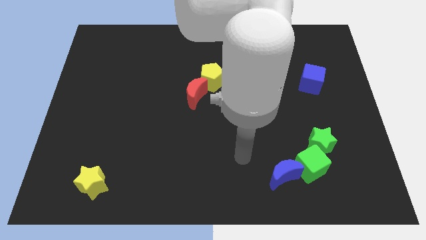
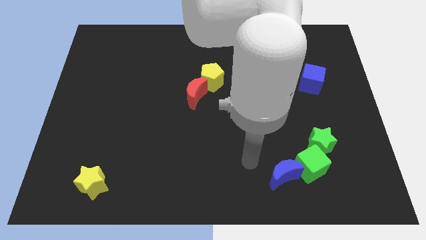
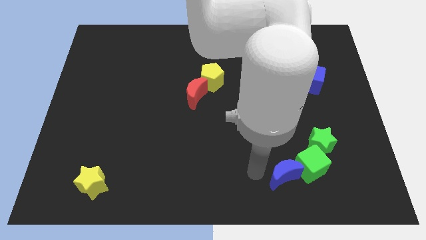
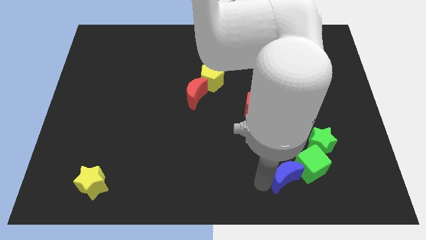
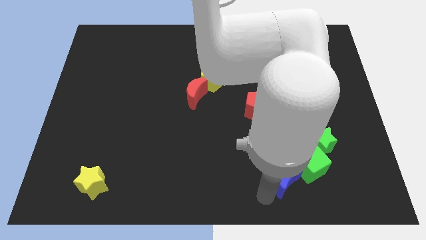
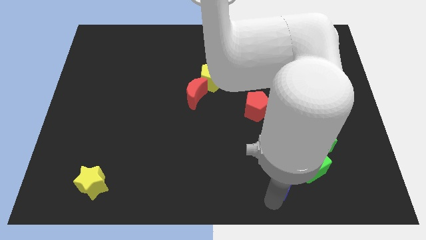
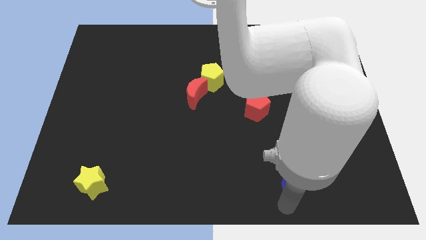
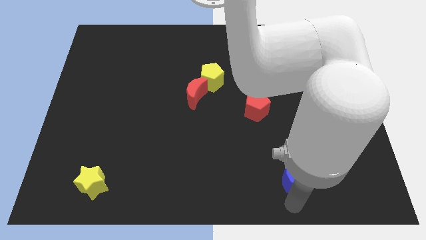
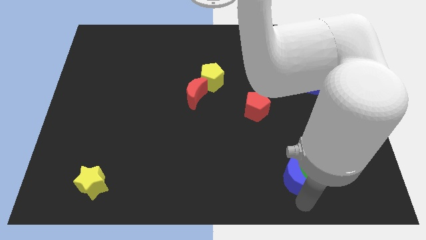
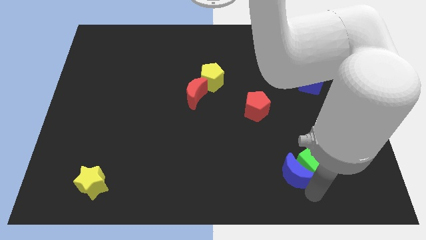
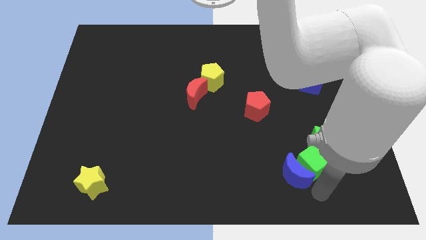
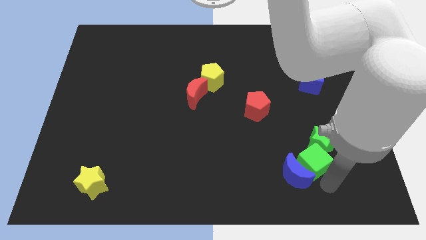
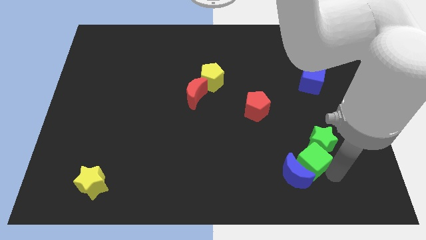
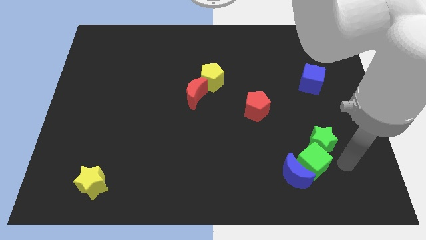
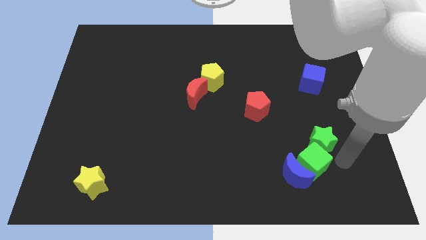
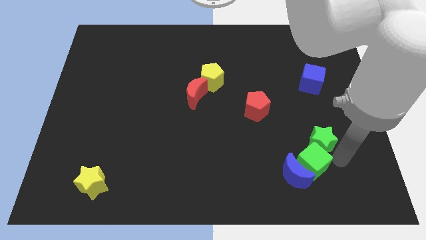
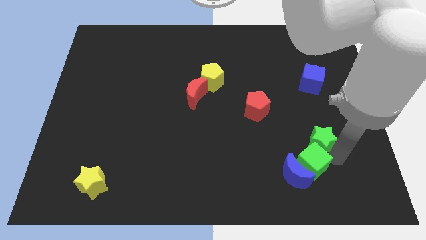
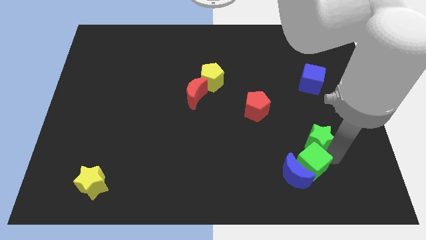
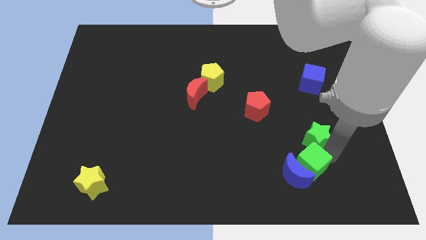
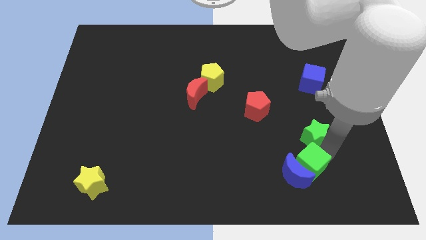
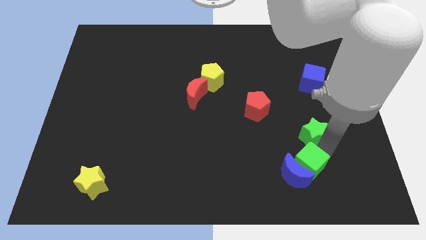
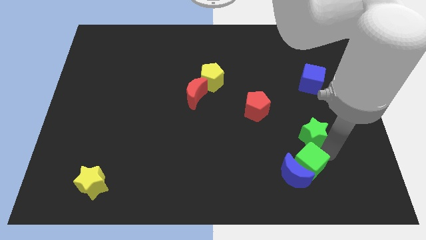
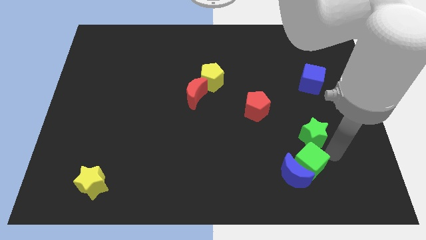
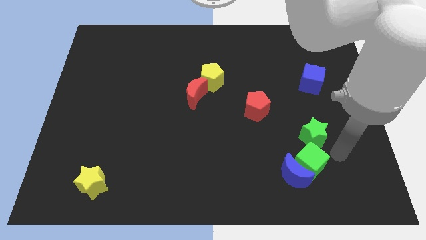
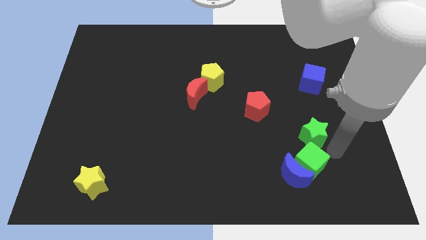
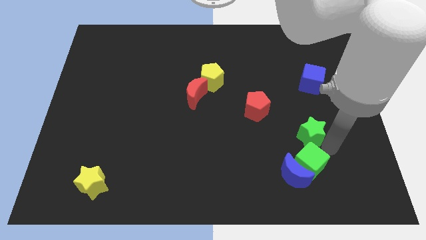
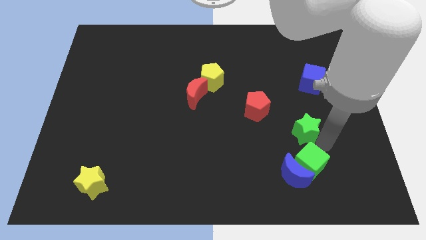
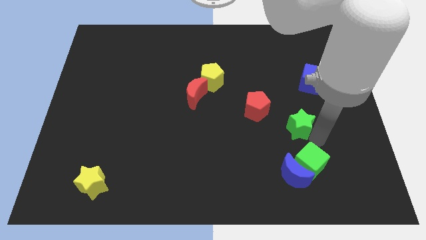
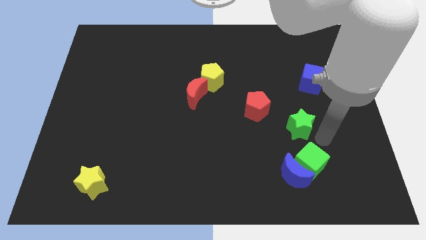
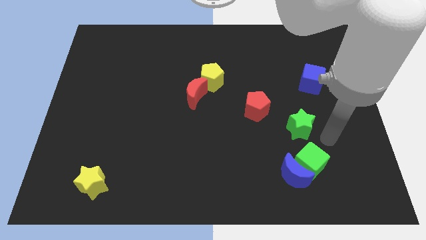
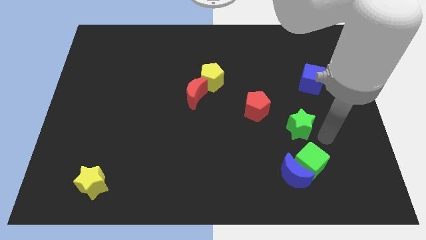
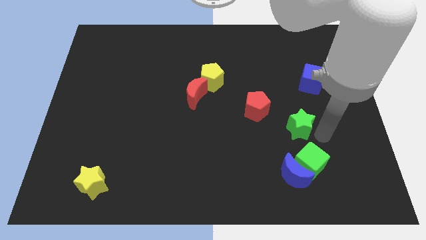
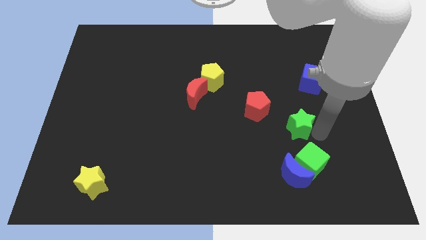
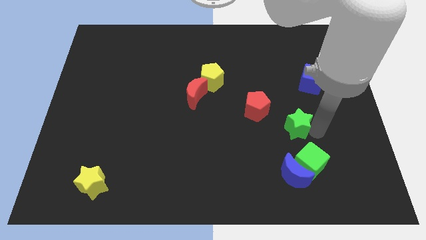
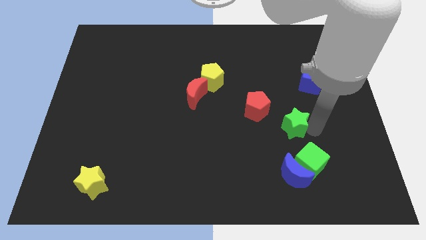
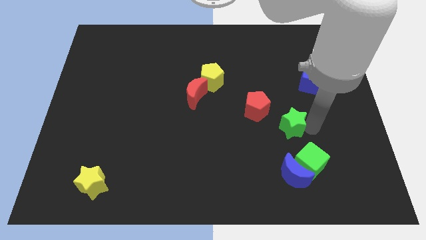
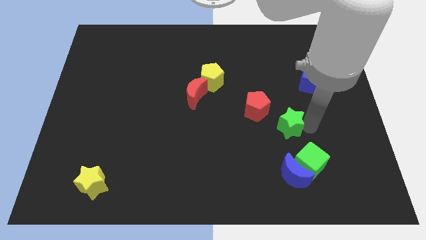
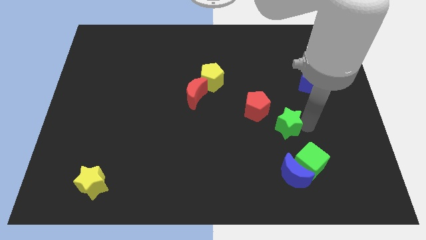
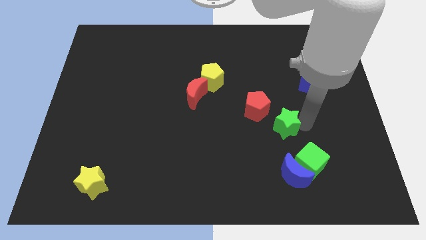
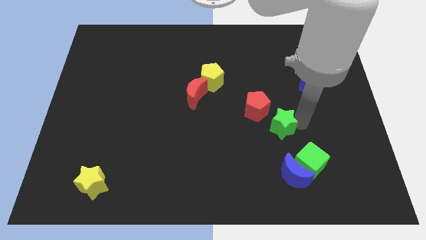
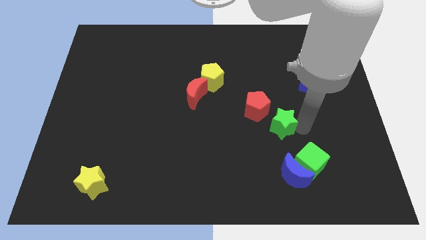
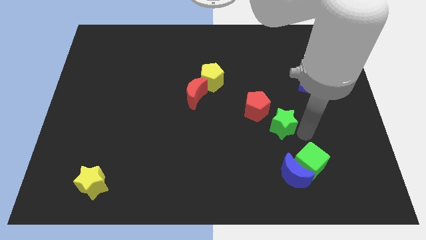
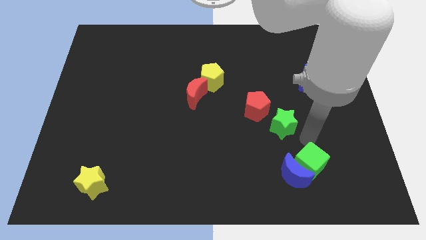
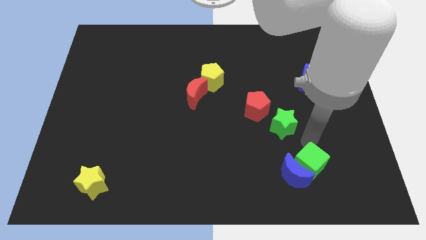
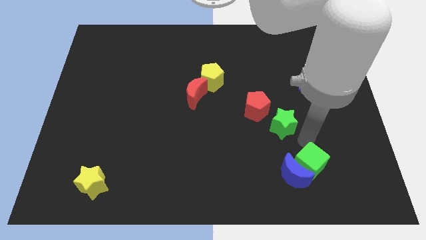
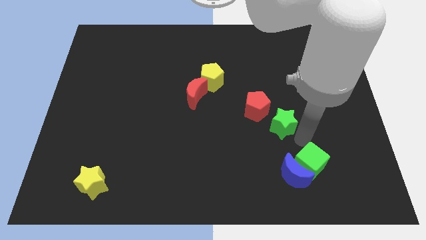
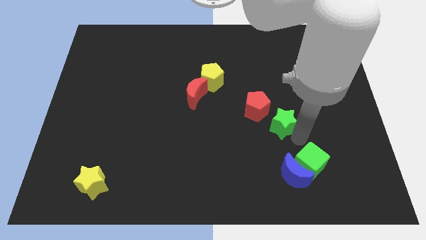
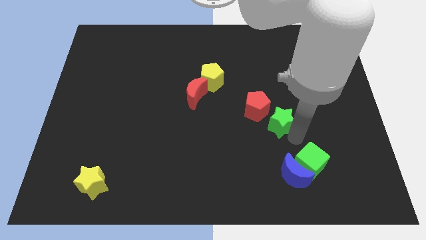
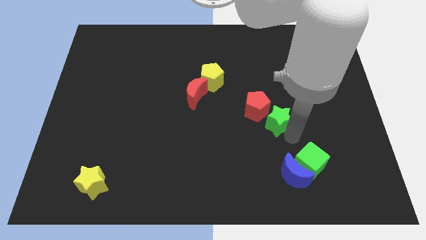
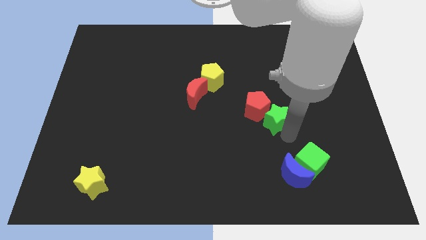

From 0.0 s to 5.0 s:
put the green star to the red pentagon

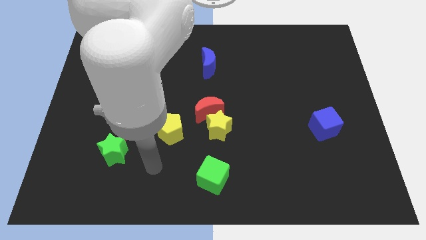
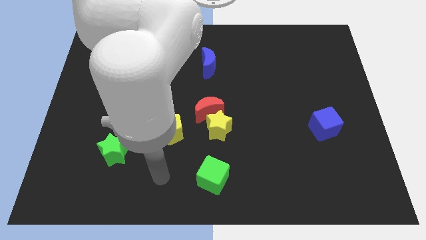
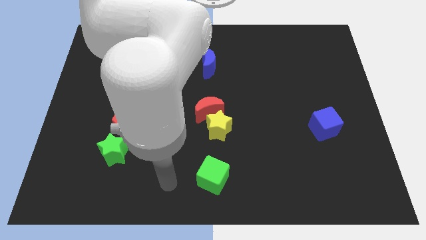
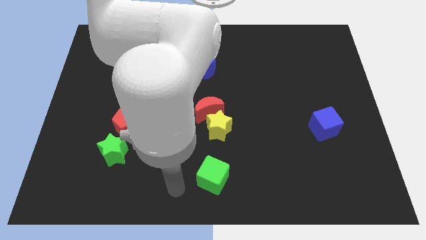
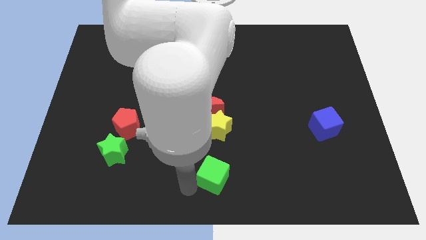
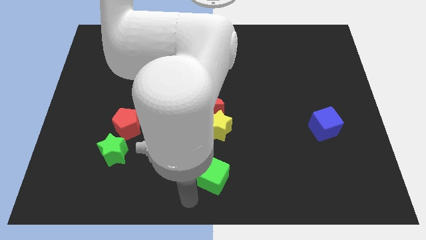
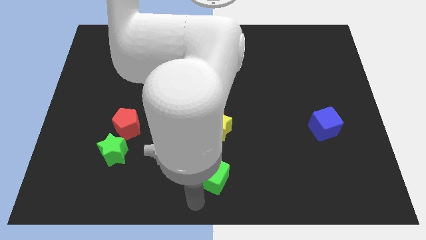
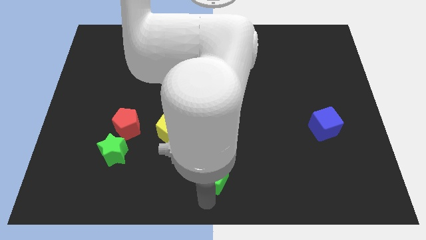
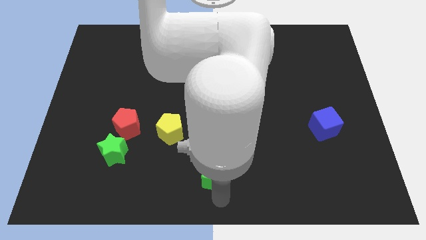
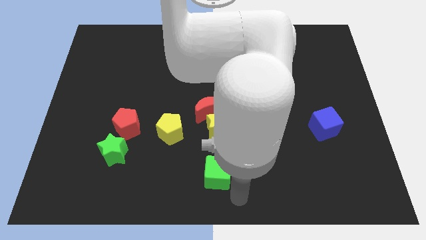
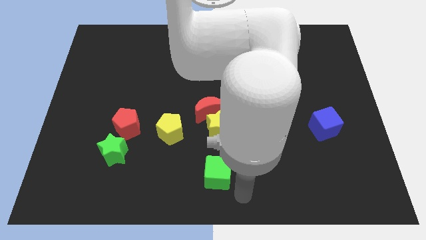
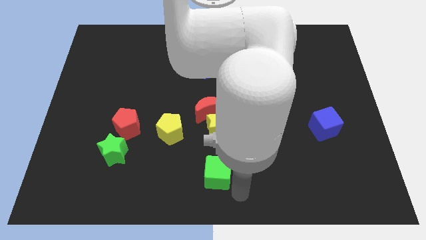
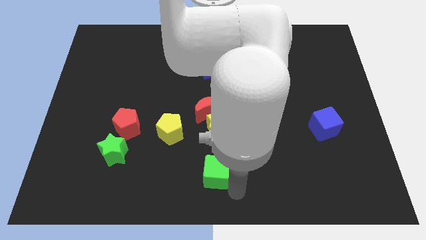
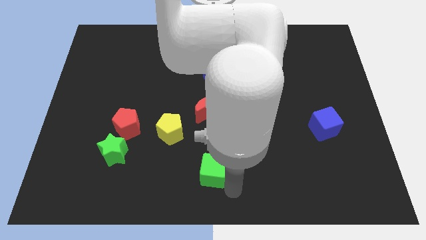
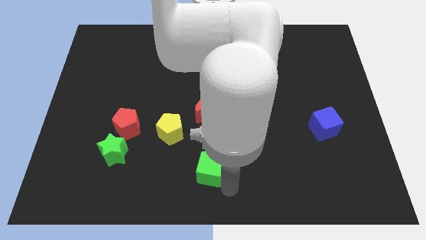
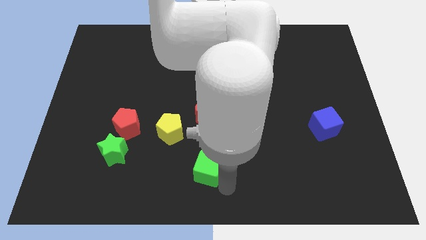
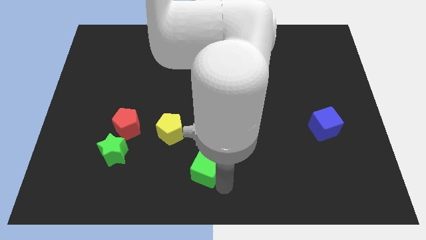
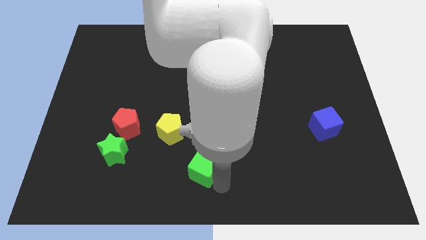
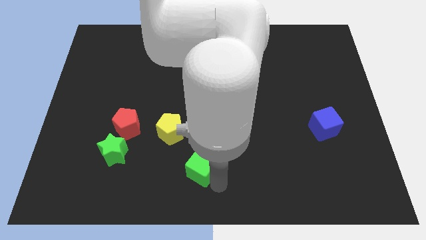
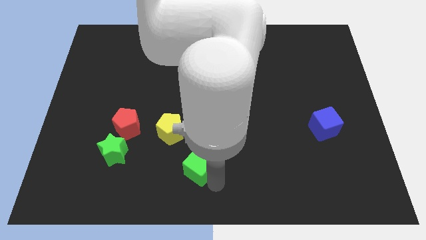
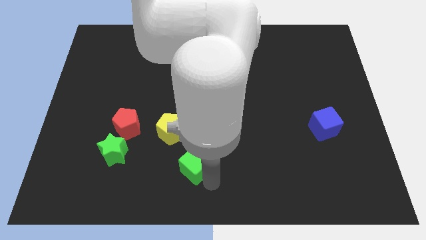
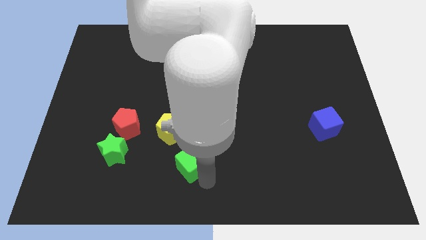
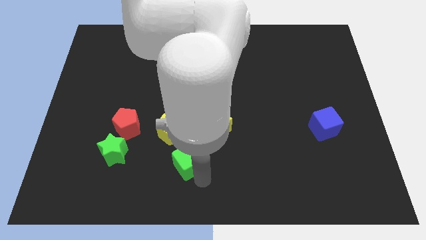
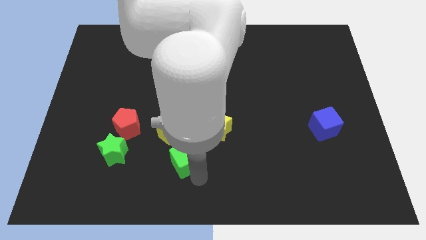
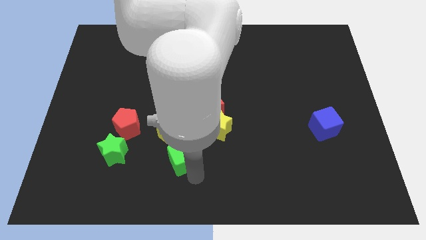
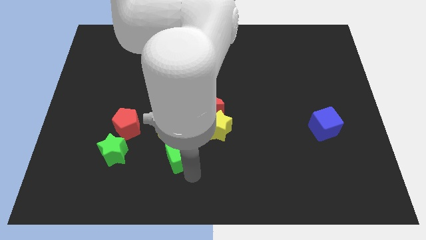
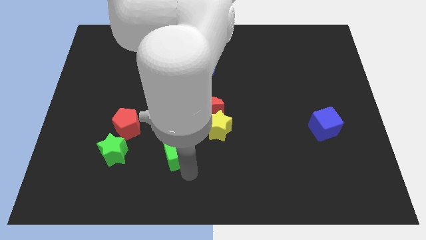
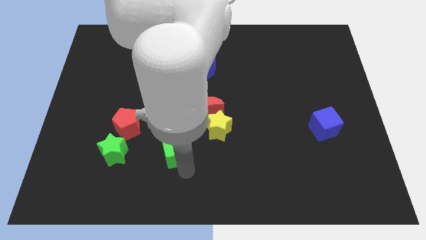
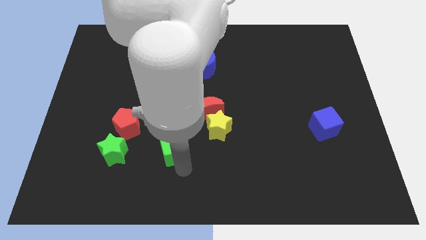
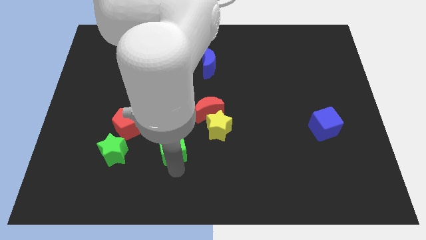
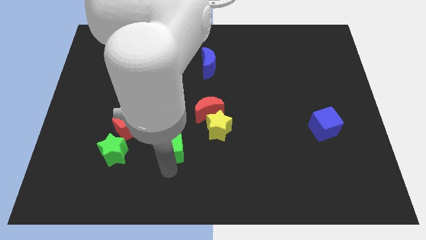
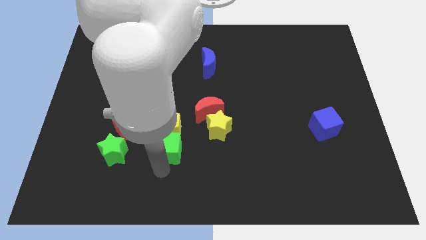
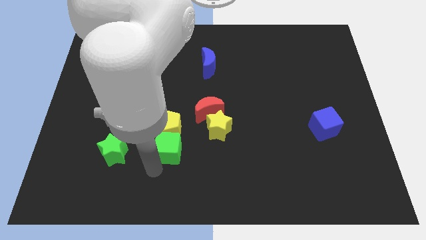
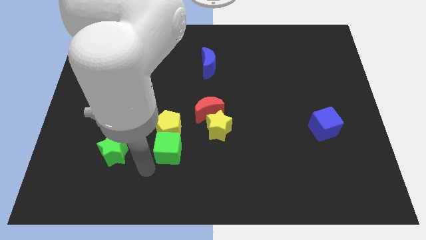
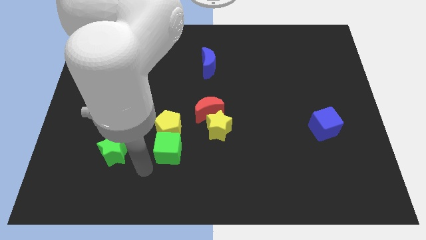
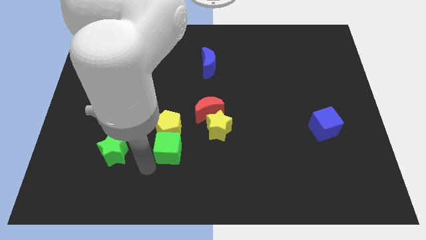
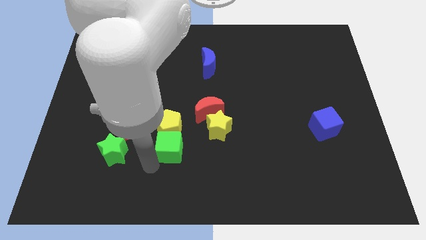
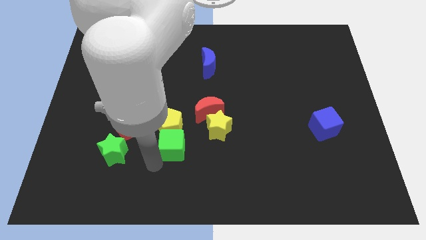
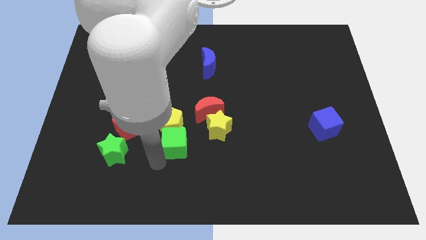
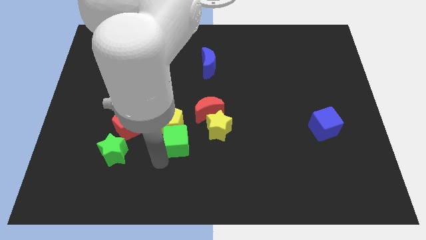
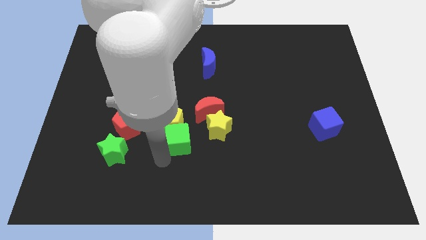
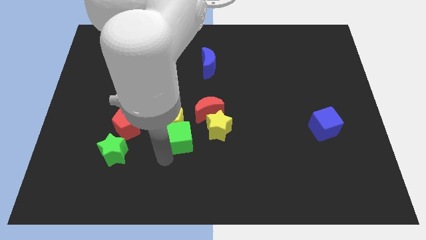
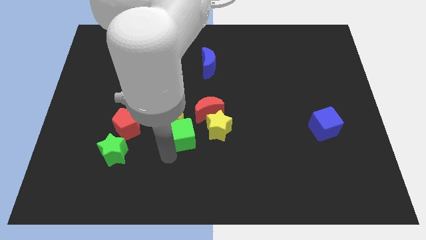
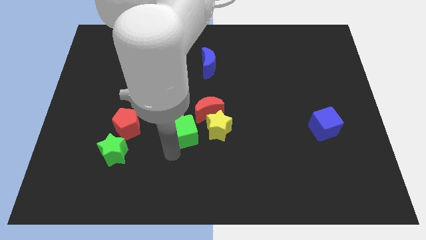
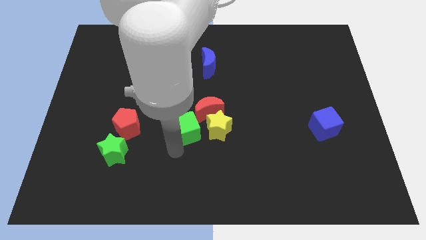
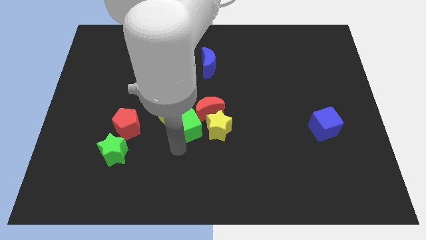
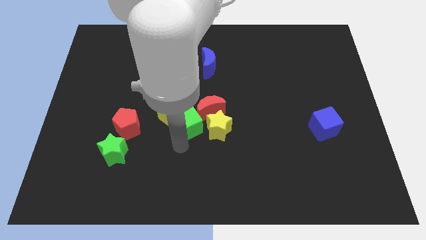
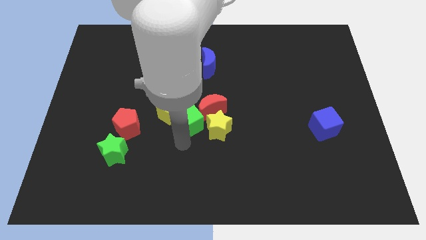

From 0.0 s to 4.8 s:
put the green cube towards the red moon
